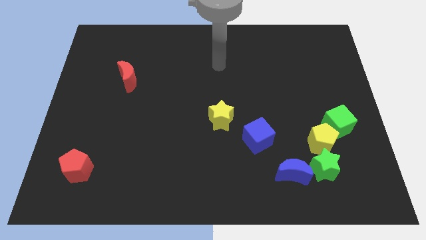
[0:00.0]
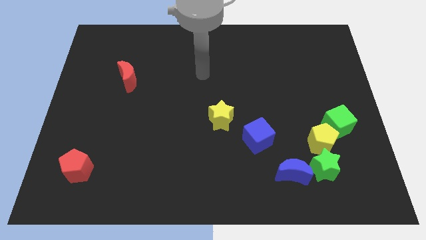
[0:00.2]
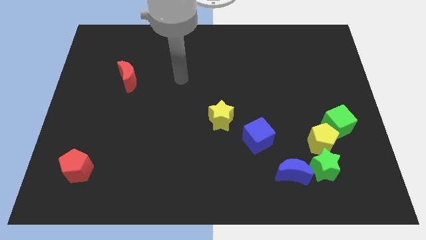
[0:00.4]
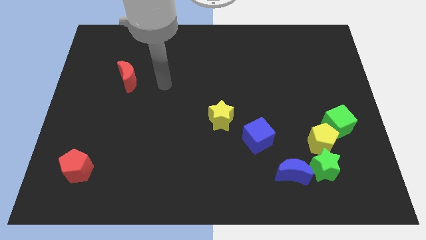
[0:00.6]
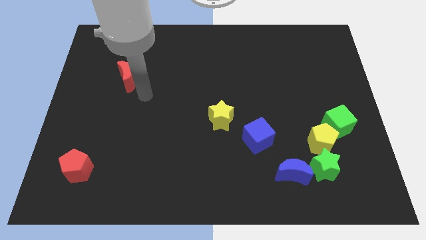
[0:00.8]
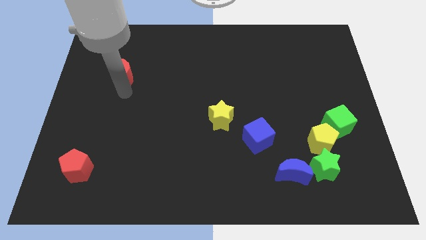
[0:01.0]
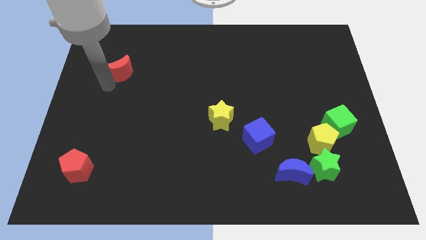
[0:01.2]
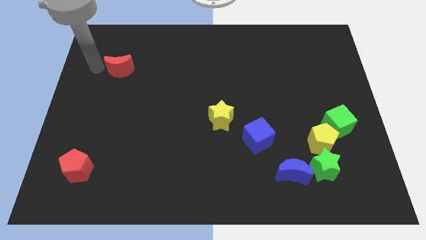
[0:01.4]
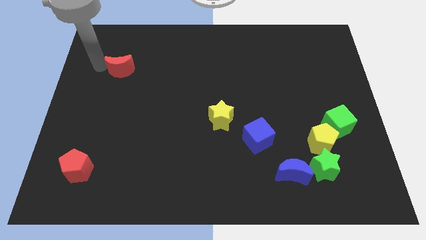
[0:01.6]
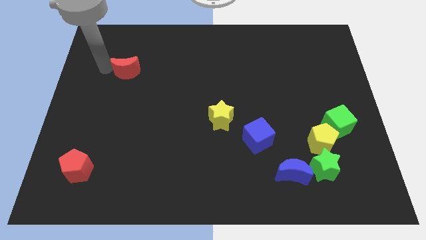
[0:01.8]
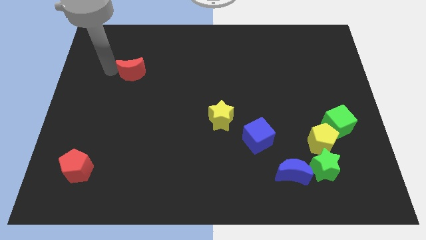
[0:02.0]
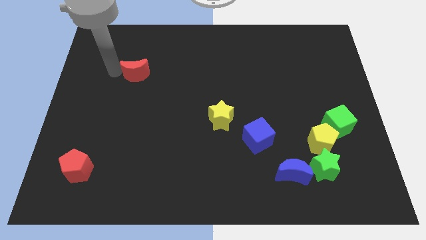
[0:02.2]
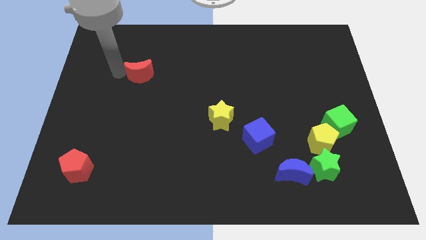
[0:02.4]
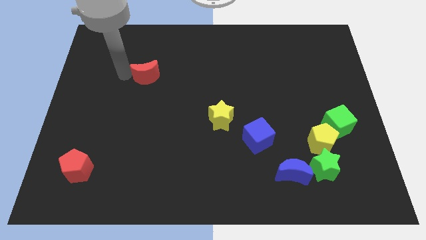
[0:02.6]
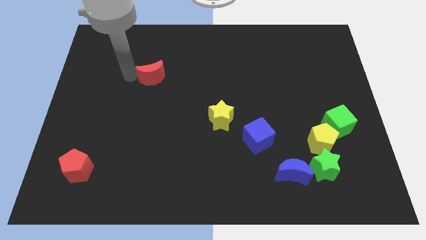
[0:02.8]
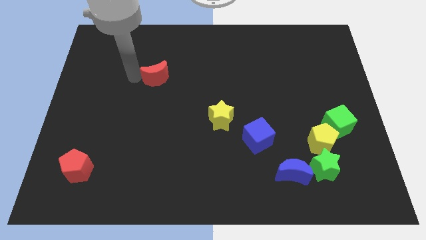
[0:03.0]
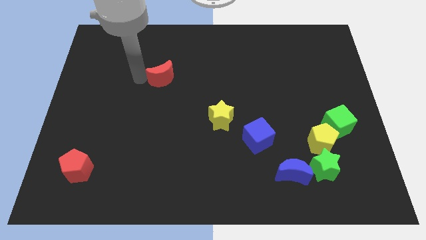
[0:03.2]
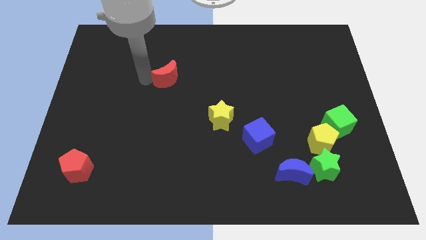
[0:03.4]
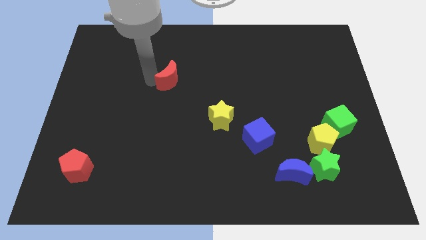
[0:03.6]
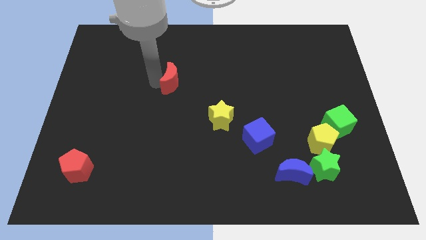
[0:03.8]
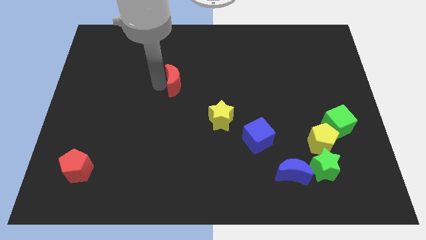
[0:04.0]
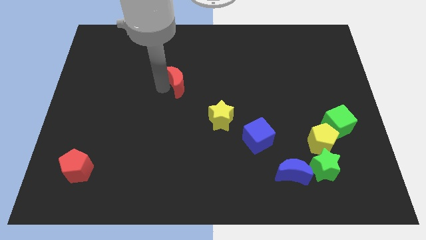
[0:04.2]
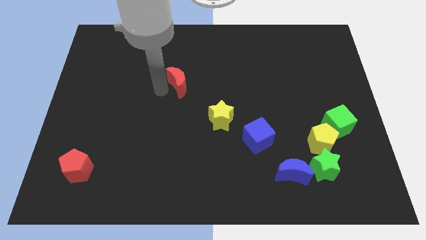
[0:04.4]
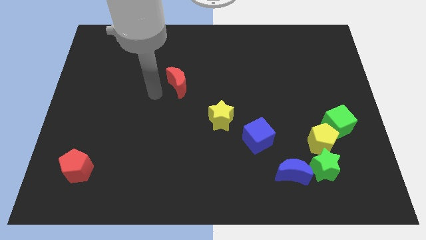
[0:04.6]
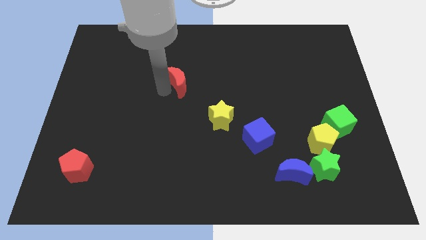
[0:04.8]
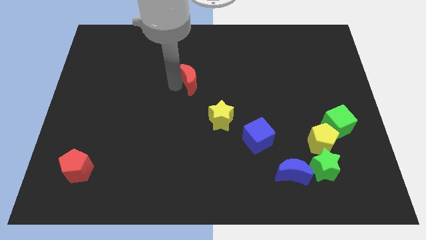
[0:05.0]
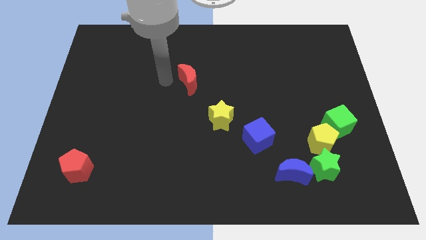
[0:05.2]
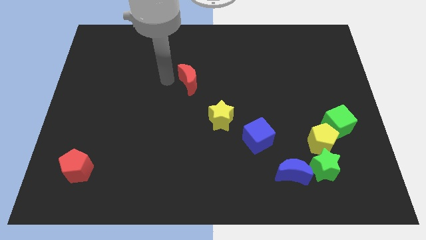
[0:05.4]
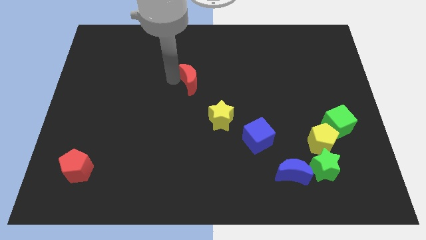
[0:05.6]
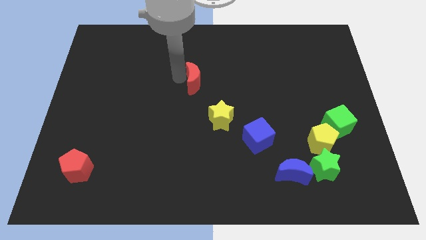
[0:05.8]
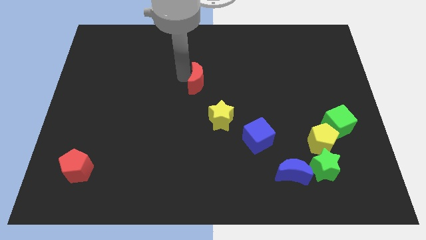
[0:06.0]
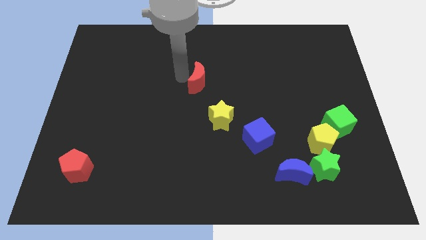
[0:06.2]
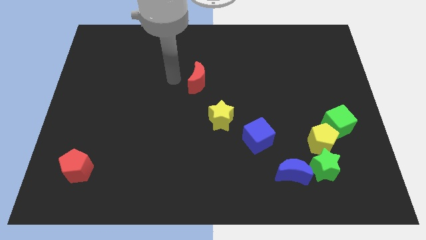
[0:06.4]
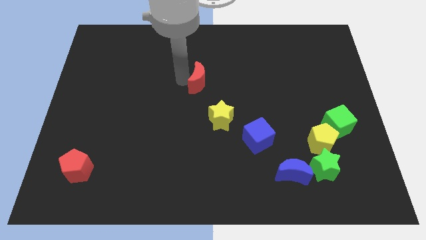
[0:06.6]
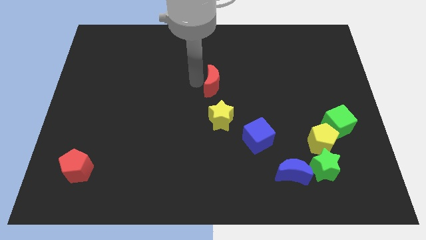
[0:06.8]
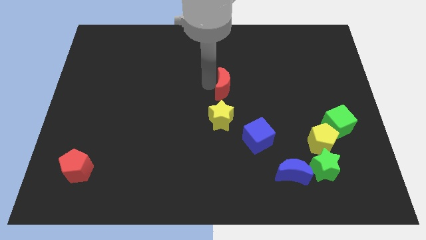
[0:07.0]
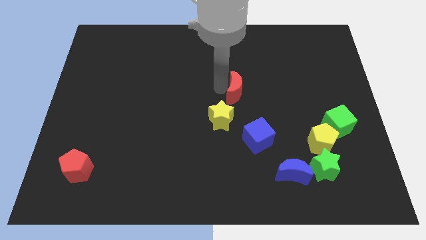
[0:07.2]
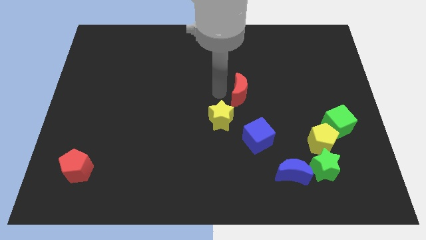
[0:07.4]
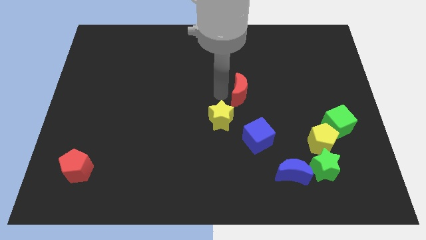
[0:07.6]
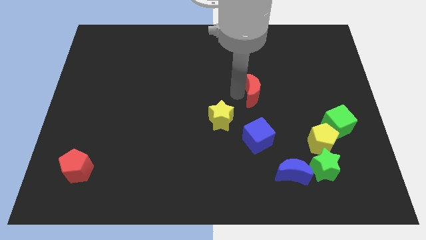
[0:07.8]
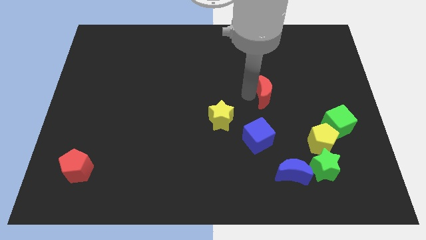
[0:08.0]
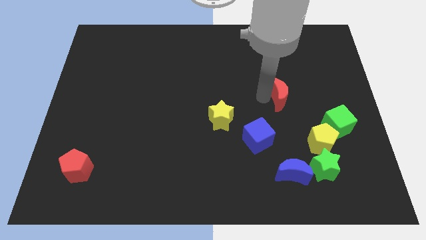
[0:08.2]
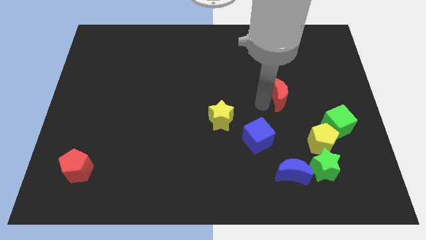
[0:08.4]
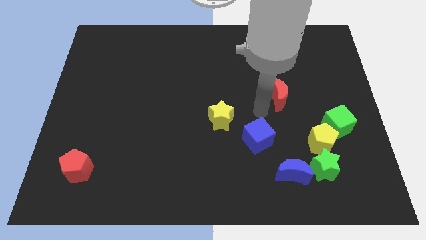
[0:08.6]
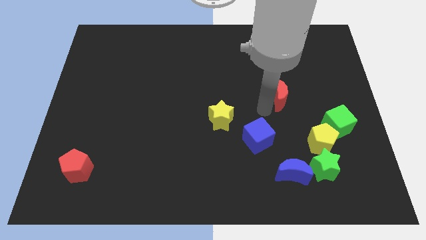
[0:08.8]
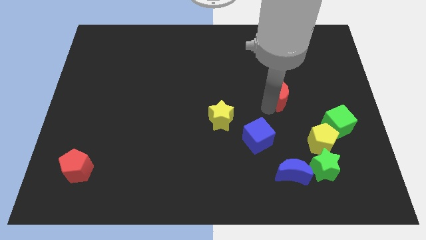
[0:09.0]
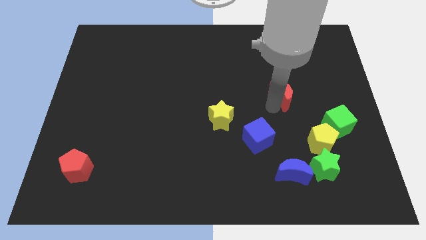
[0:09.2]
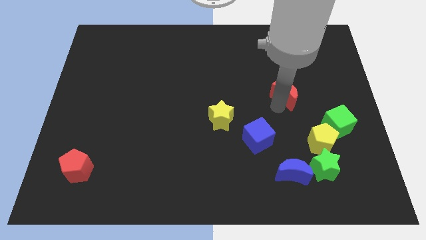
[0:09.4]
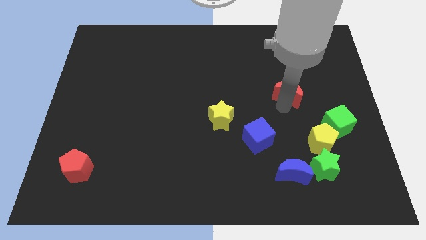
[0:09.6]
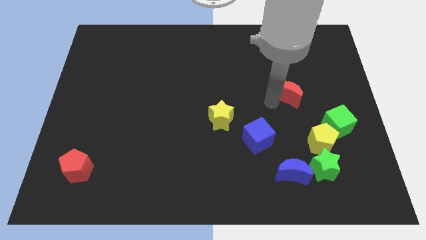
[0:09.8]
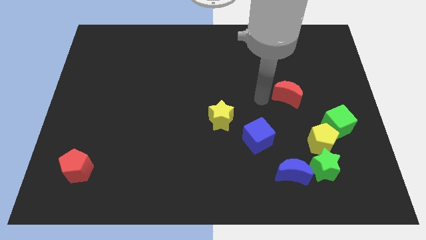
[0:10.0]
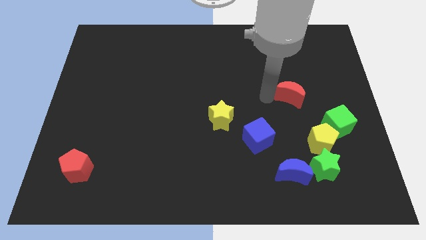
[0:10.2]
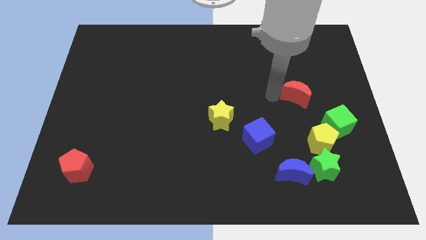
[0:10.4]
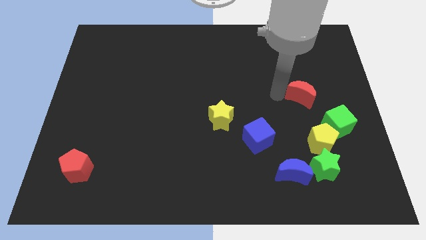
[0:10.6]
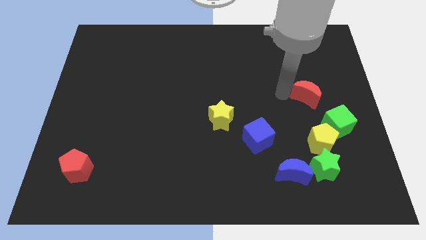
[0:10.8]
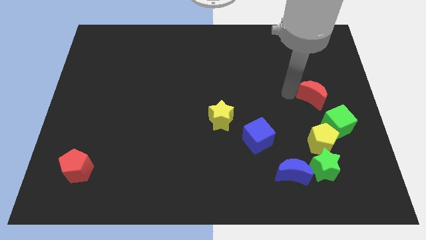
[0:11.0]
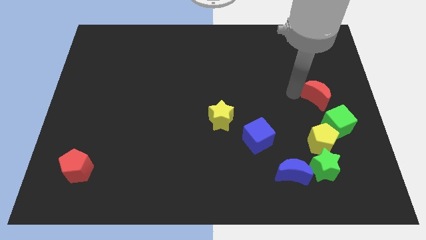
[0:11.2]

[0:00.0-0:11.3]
move the red moon to the right side

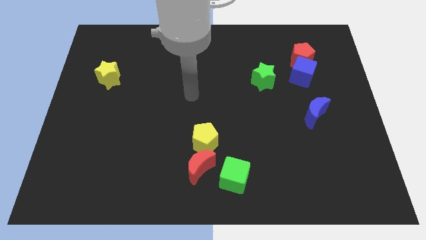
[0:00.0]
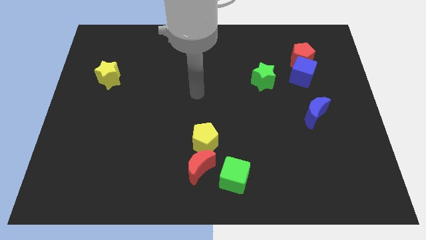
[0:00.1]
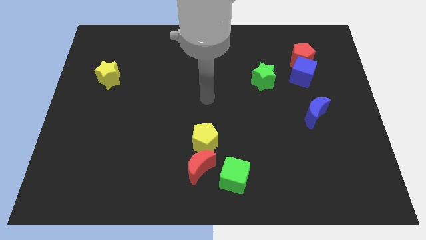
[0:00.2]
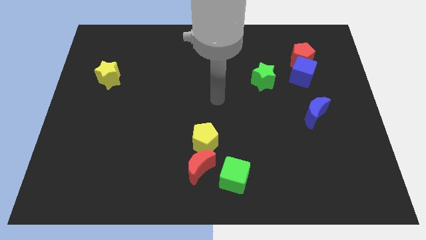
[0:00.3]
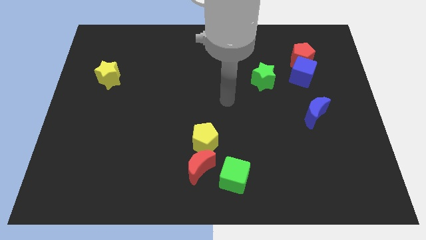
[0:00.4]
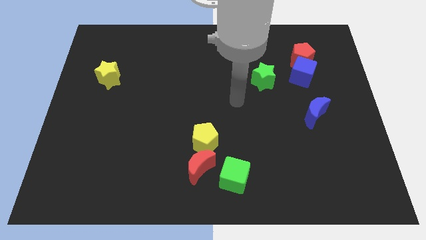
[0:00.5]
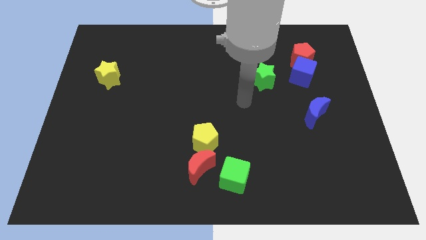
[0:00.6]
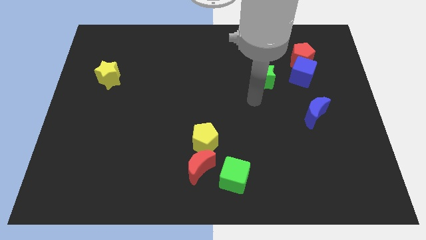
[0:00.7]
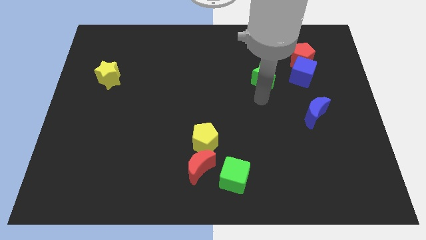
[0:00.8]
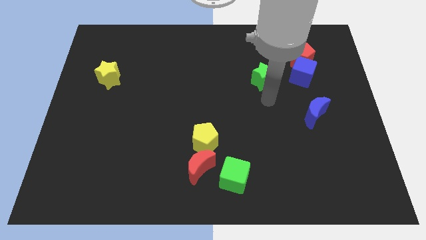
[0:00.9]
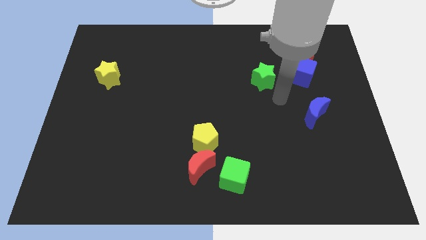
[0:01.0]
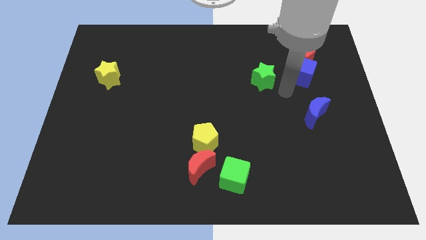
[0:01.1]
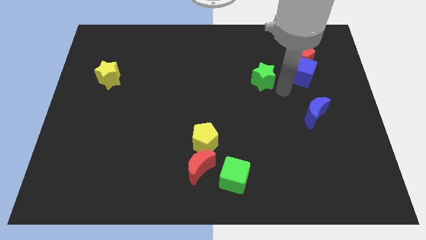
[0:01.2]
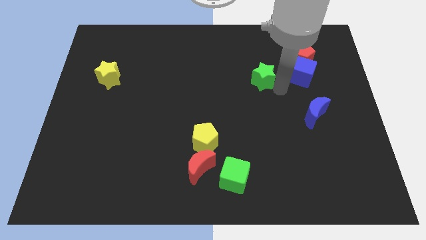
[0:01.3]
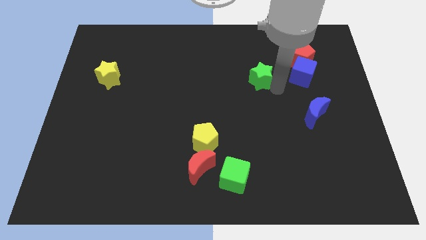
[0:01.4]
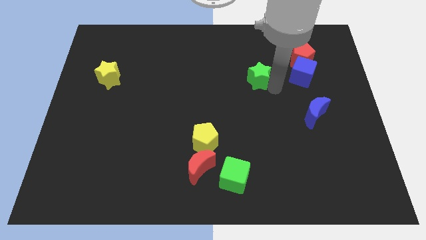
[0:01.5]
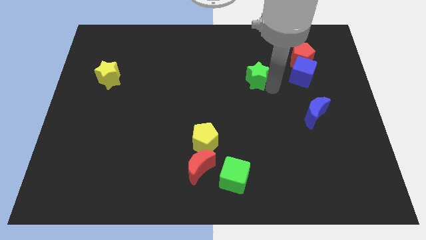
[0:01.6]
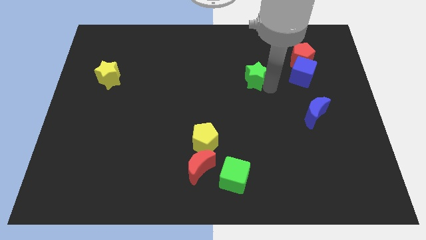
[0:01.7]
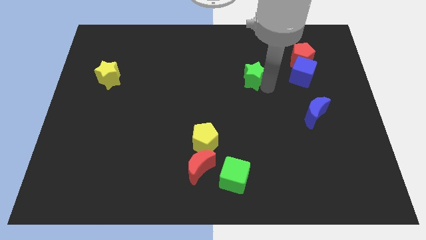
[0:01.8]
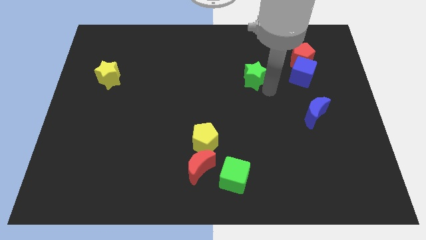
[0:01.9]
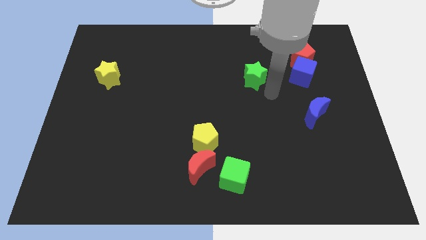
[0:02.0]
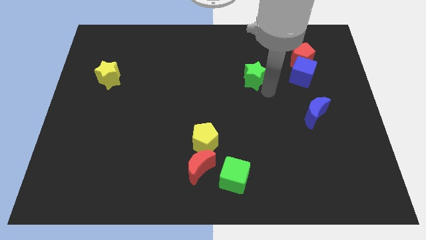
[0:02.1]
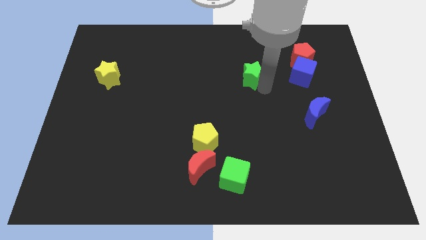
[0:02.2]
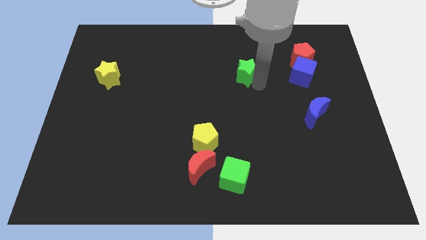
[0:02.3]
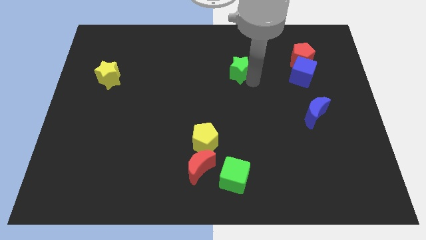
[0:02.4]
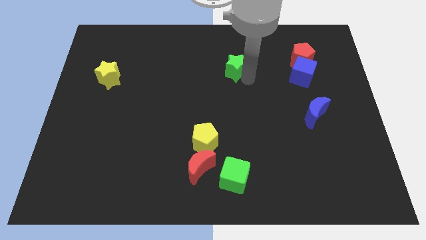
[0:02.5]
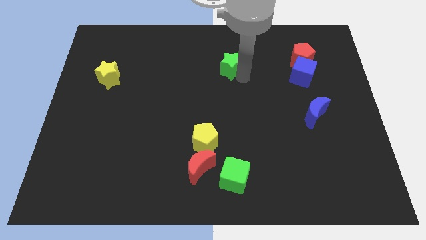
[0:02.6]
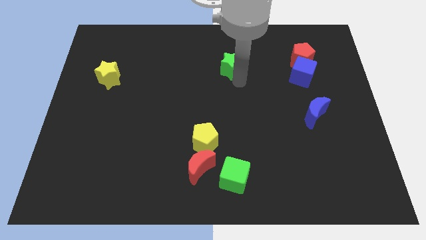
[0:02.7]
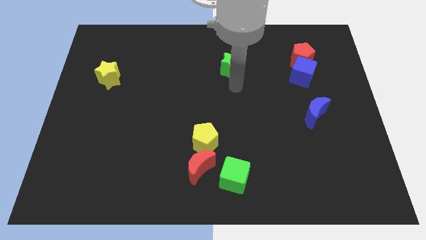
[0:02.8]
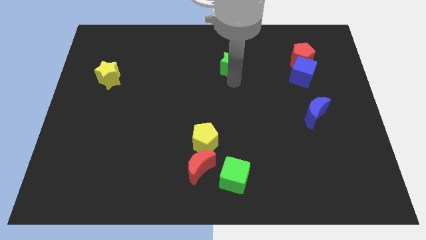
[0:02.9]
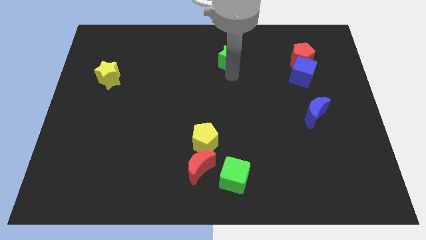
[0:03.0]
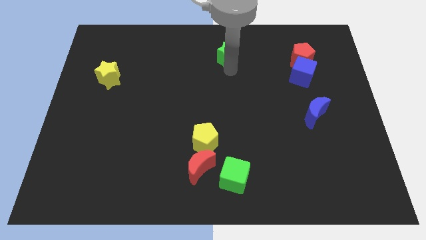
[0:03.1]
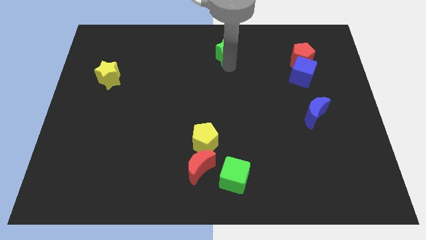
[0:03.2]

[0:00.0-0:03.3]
put the green star to the top
